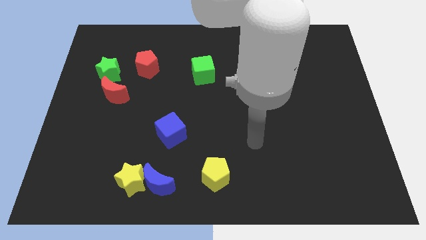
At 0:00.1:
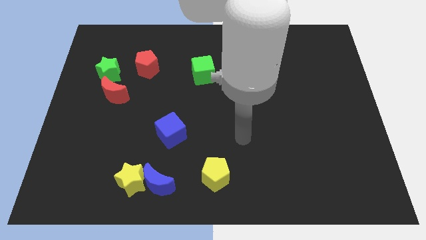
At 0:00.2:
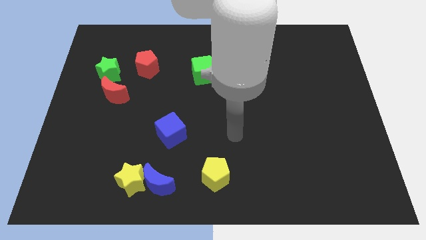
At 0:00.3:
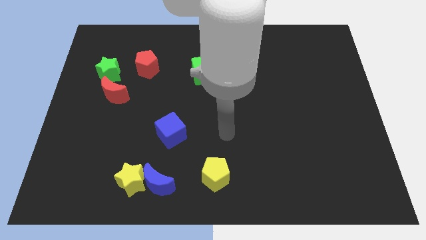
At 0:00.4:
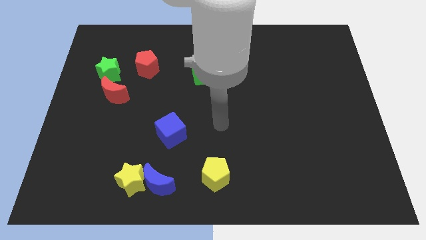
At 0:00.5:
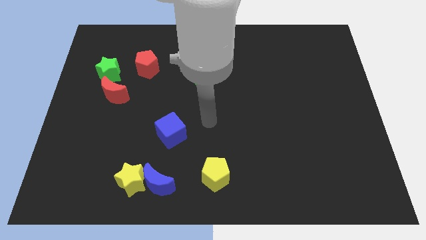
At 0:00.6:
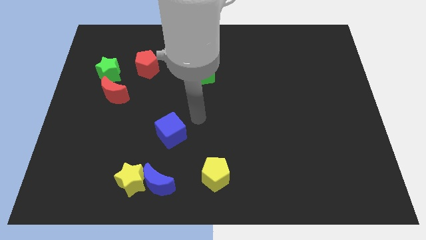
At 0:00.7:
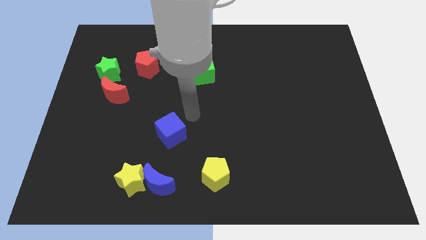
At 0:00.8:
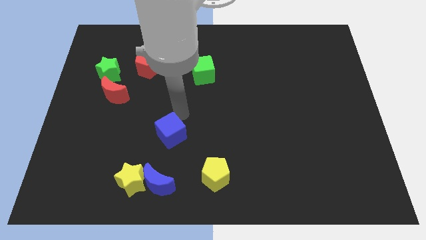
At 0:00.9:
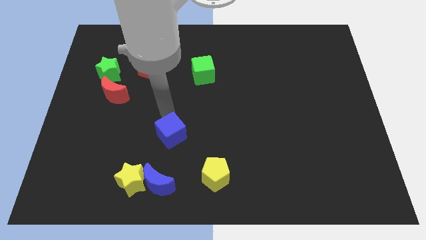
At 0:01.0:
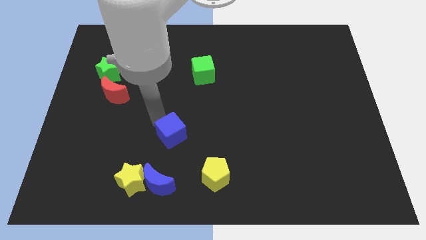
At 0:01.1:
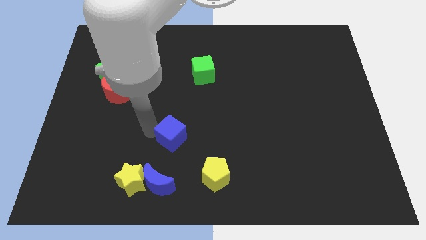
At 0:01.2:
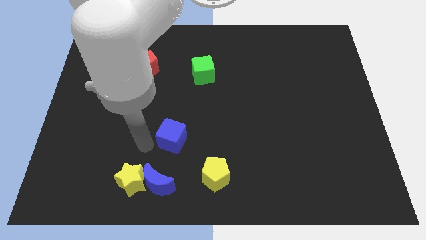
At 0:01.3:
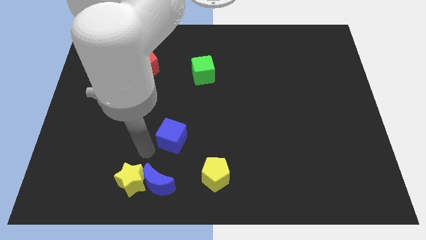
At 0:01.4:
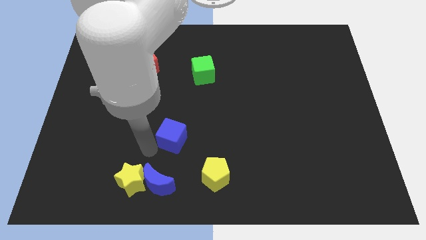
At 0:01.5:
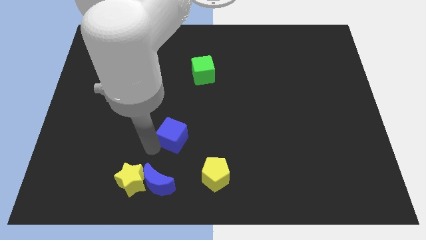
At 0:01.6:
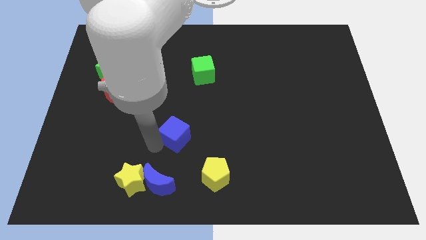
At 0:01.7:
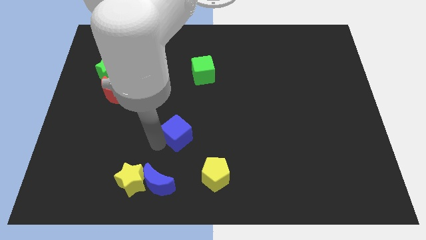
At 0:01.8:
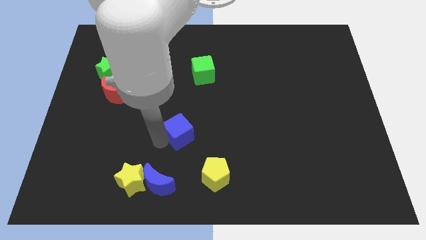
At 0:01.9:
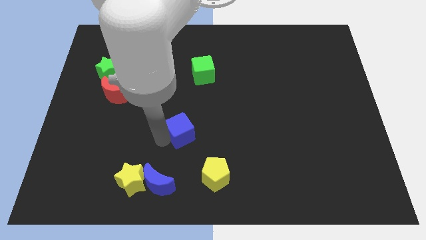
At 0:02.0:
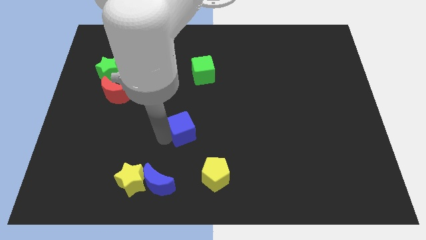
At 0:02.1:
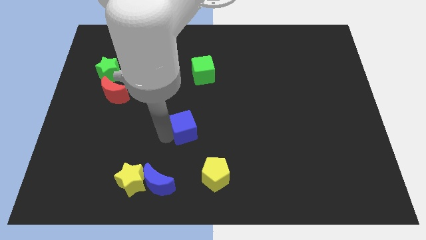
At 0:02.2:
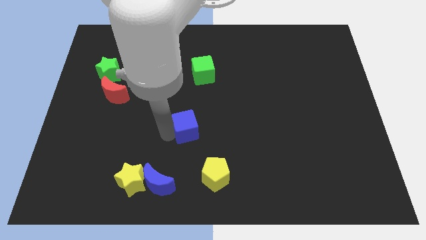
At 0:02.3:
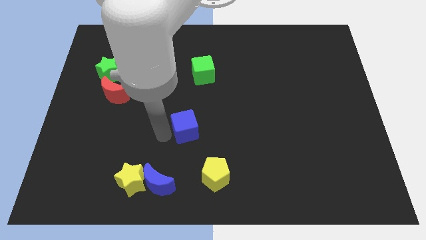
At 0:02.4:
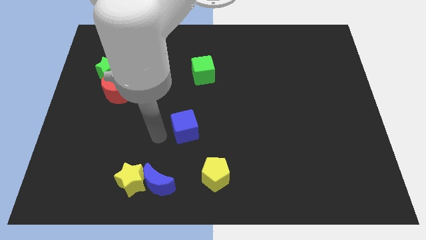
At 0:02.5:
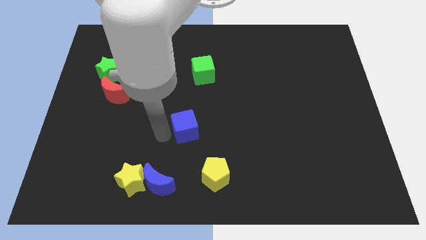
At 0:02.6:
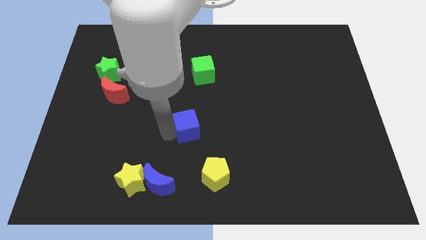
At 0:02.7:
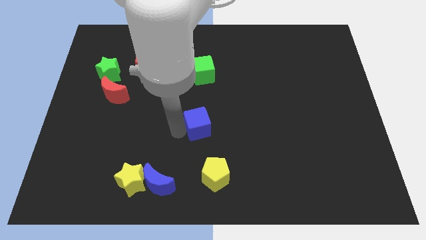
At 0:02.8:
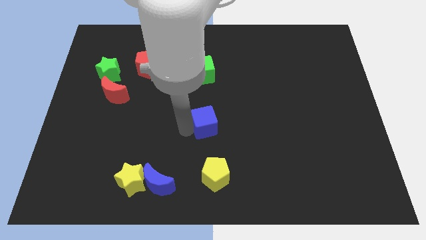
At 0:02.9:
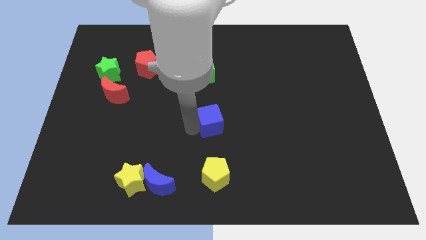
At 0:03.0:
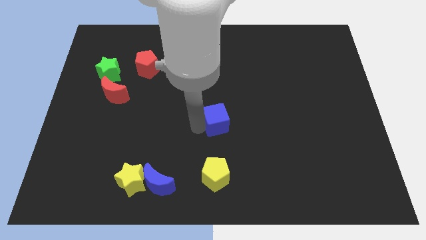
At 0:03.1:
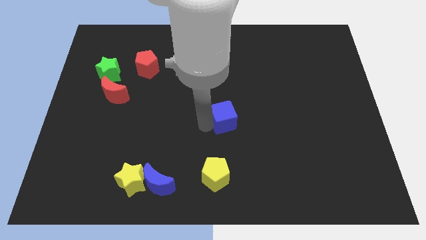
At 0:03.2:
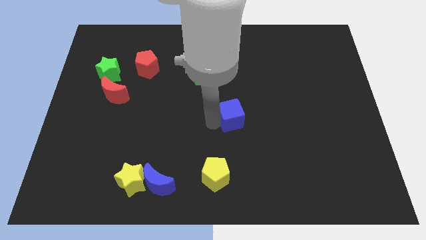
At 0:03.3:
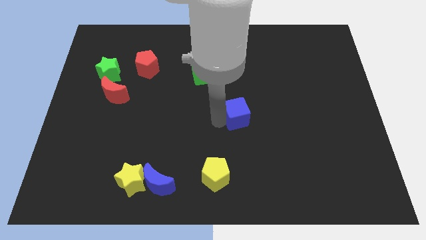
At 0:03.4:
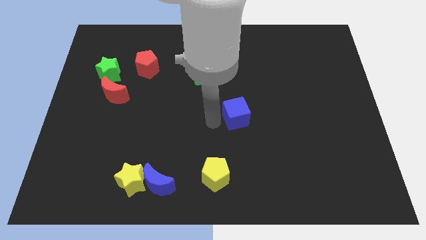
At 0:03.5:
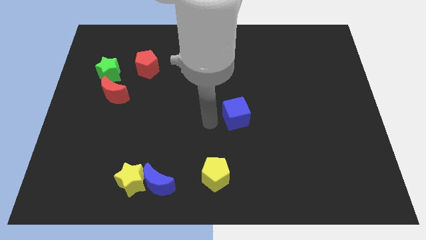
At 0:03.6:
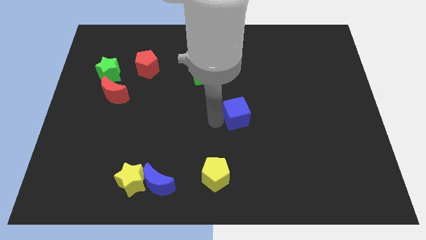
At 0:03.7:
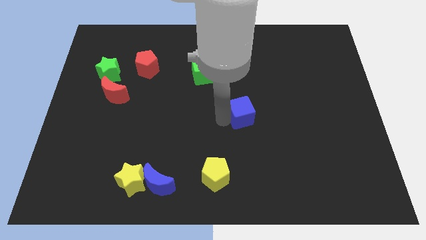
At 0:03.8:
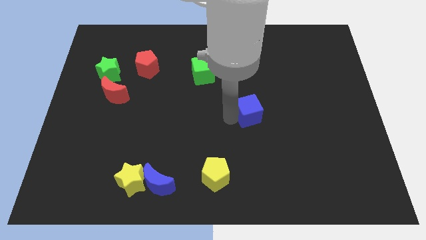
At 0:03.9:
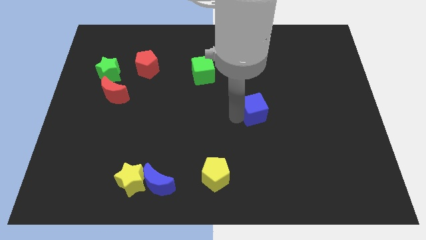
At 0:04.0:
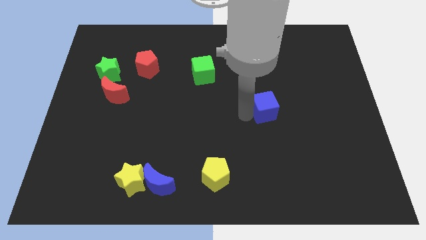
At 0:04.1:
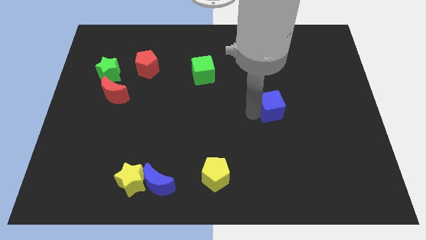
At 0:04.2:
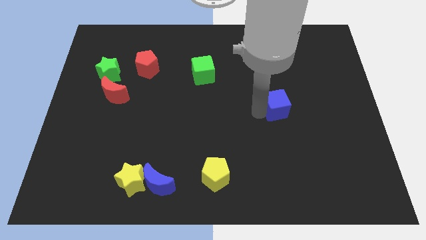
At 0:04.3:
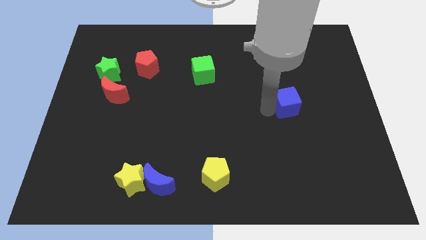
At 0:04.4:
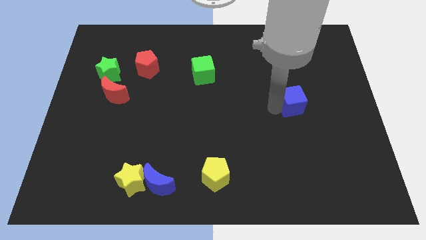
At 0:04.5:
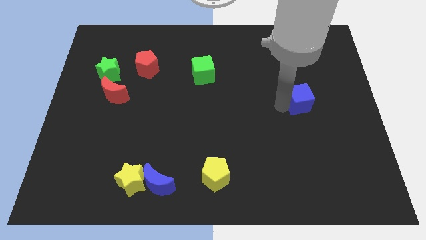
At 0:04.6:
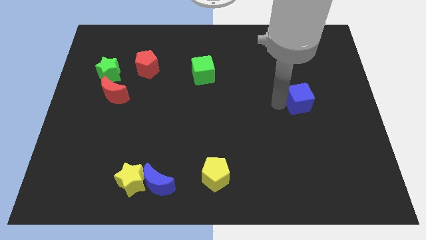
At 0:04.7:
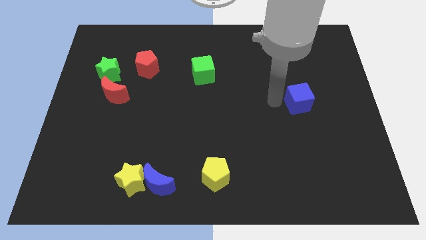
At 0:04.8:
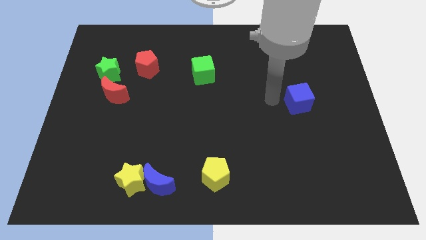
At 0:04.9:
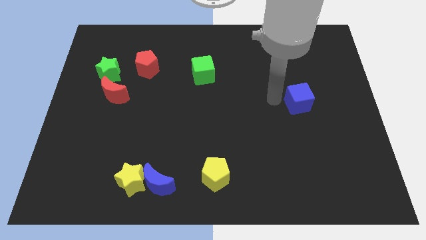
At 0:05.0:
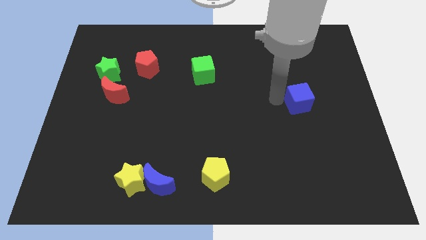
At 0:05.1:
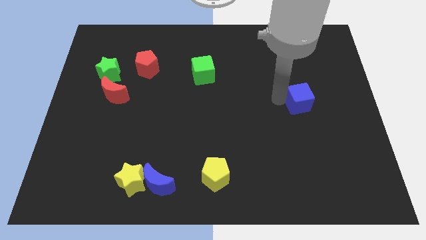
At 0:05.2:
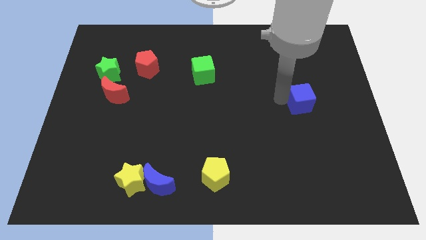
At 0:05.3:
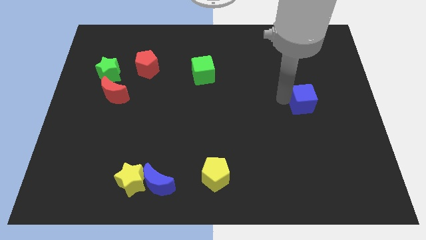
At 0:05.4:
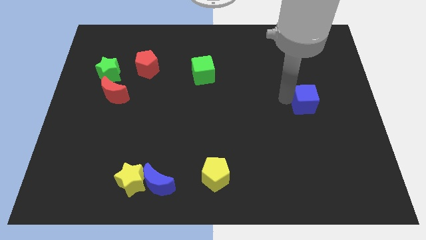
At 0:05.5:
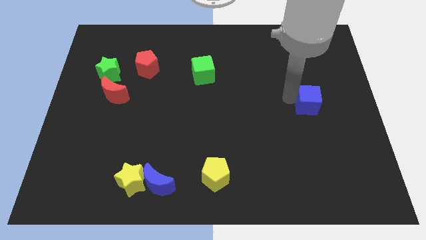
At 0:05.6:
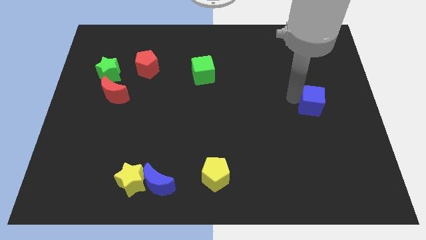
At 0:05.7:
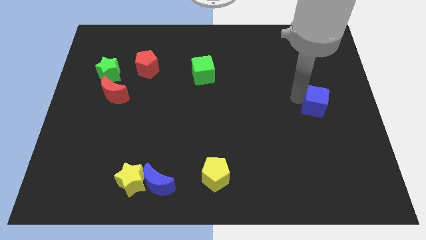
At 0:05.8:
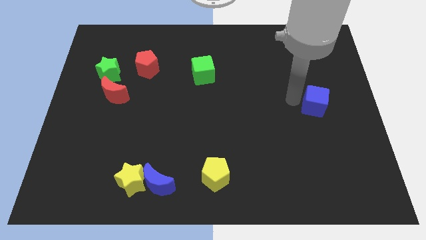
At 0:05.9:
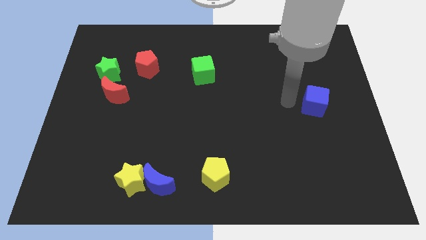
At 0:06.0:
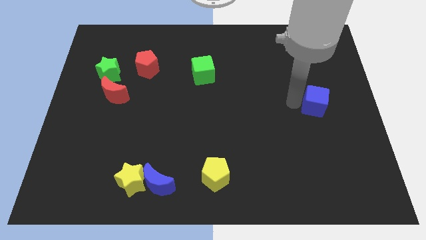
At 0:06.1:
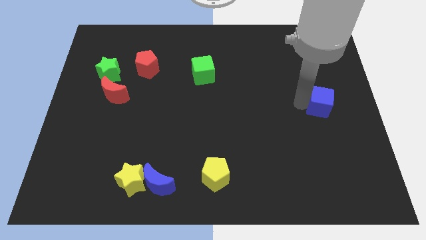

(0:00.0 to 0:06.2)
move the blue cube to the center right

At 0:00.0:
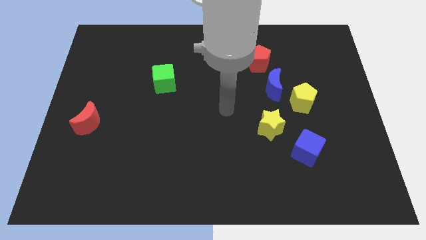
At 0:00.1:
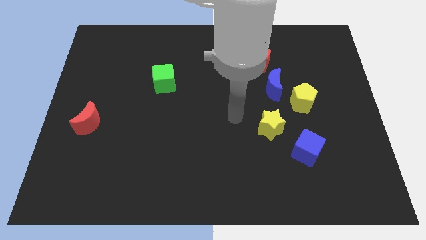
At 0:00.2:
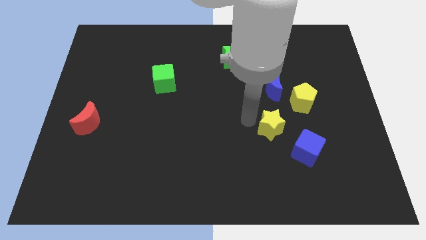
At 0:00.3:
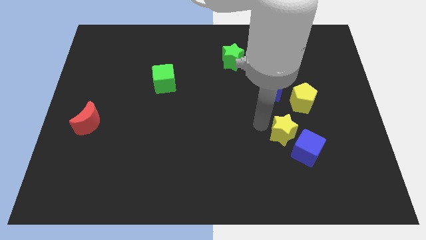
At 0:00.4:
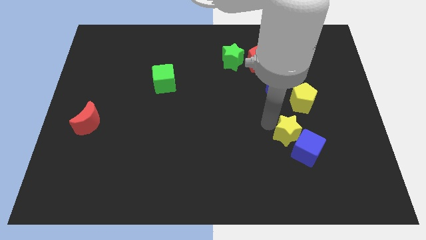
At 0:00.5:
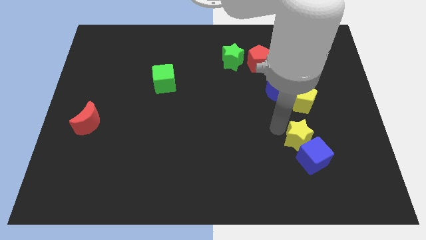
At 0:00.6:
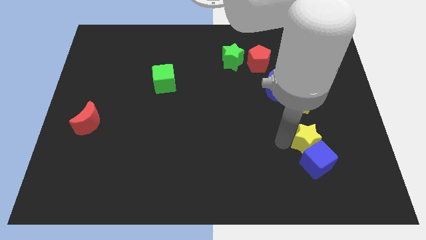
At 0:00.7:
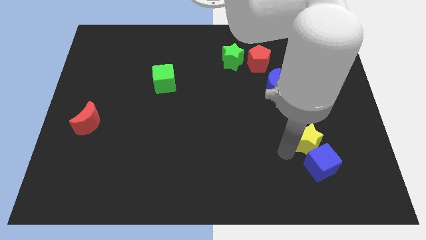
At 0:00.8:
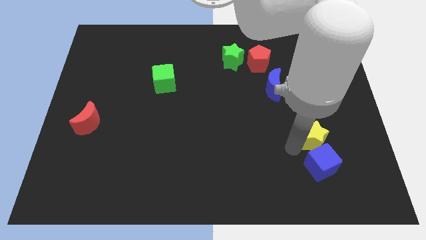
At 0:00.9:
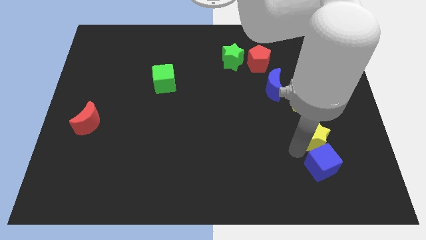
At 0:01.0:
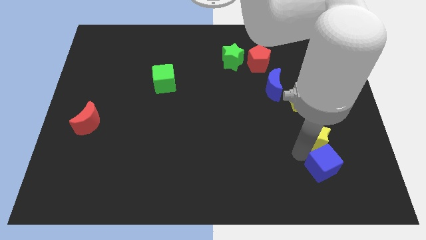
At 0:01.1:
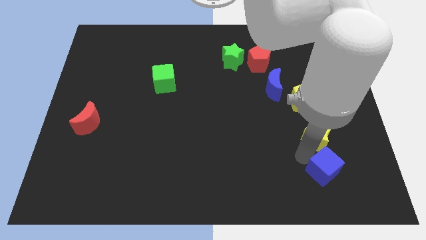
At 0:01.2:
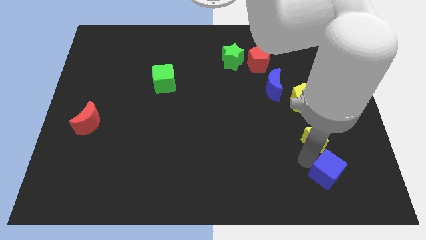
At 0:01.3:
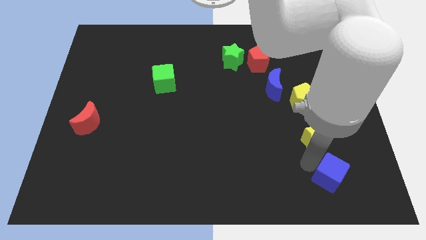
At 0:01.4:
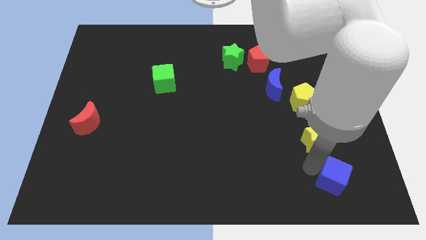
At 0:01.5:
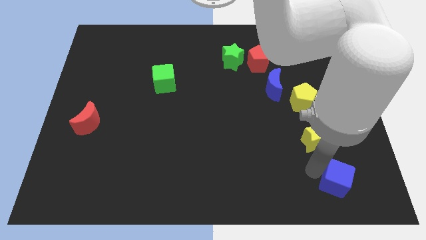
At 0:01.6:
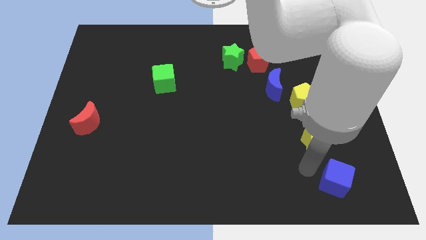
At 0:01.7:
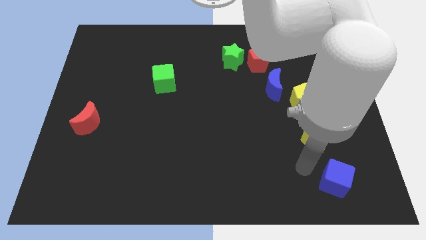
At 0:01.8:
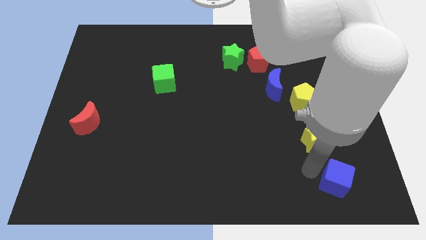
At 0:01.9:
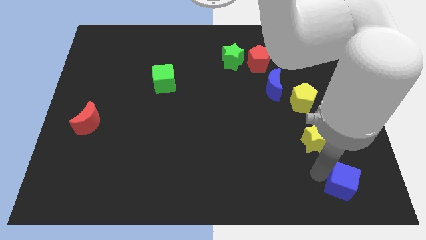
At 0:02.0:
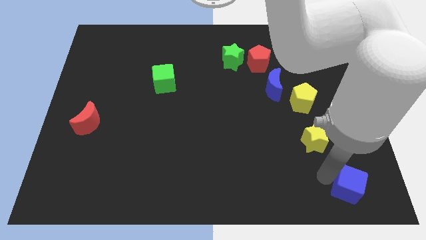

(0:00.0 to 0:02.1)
push the blue cube to the bottom right of the board
